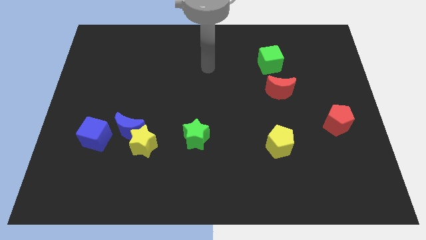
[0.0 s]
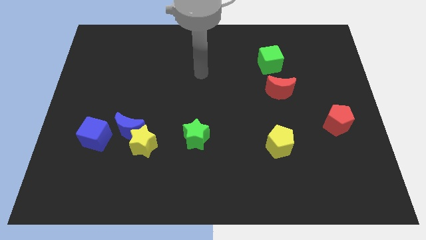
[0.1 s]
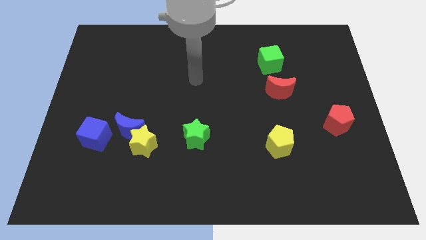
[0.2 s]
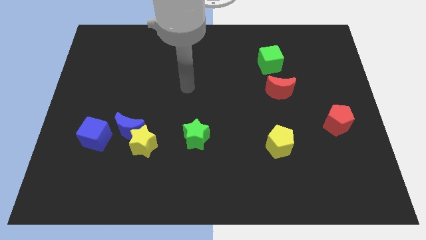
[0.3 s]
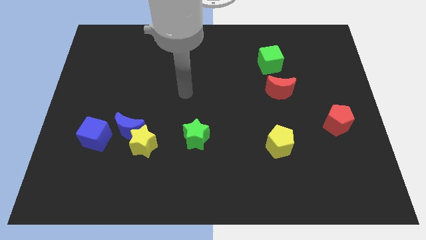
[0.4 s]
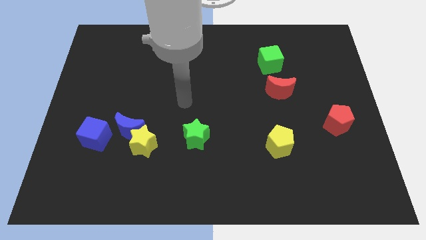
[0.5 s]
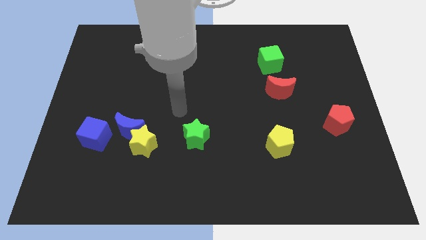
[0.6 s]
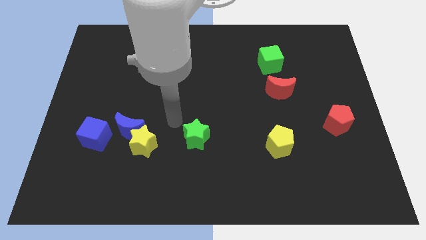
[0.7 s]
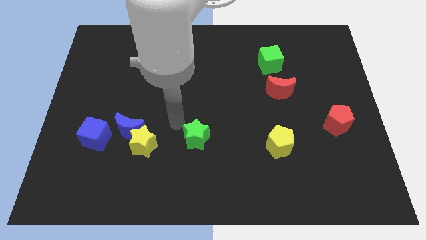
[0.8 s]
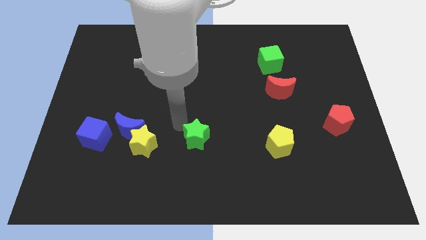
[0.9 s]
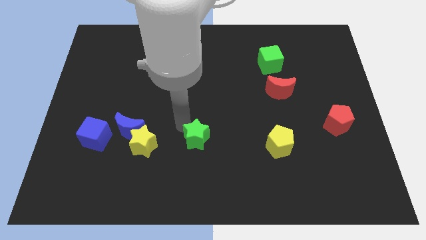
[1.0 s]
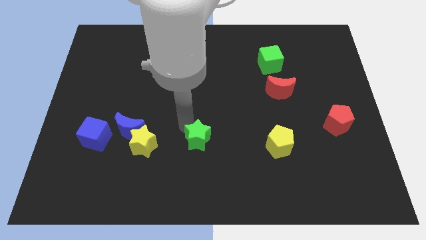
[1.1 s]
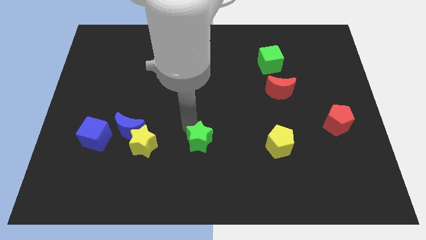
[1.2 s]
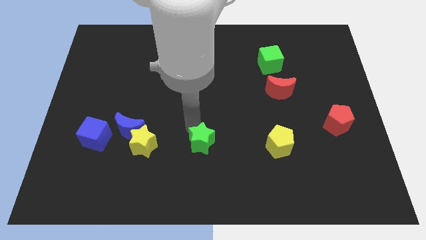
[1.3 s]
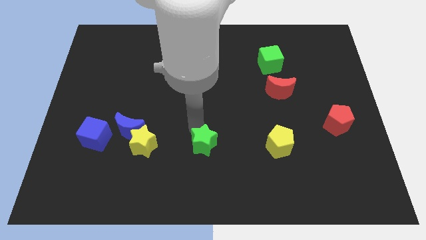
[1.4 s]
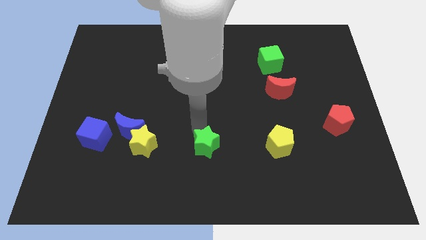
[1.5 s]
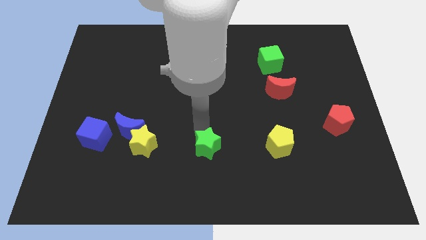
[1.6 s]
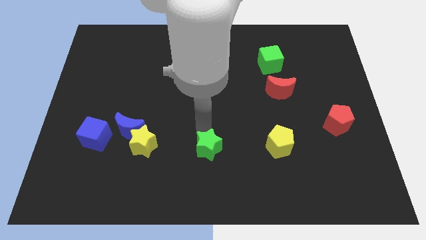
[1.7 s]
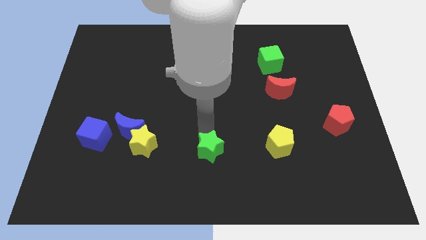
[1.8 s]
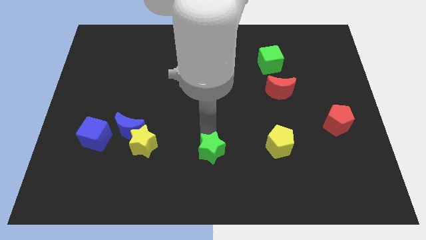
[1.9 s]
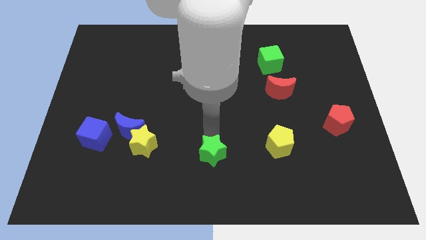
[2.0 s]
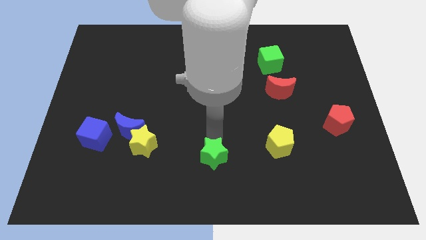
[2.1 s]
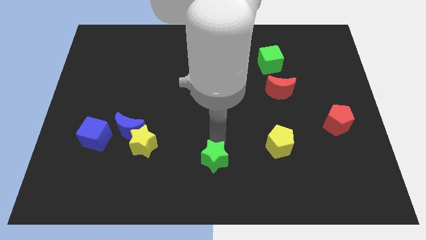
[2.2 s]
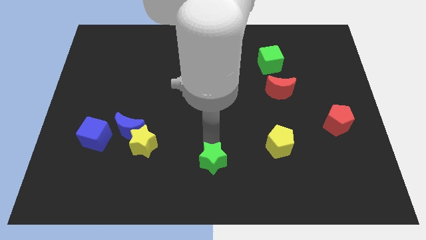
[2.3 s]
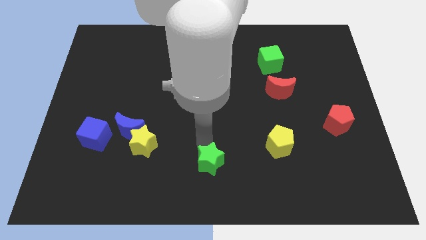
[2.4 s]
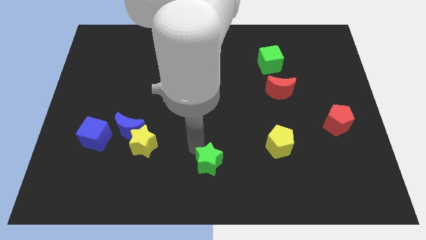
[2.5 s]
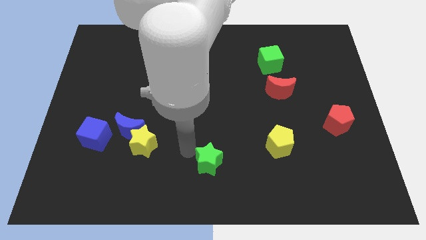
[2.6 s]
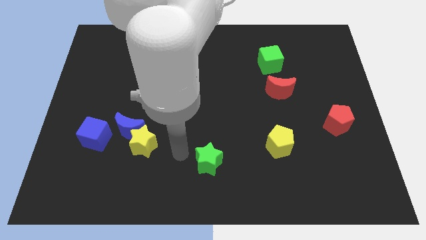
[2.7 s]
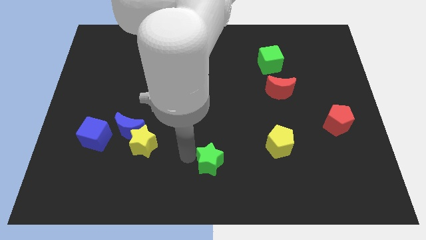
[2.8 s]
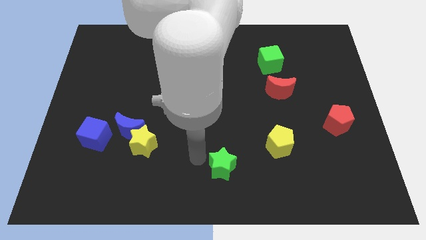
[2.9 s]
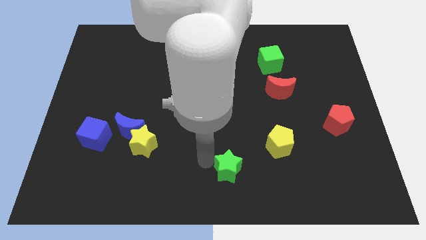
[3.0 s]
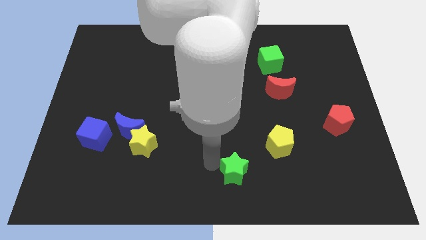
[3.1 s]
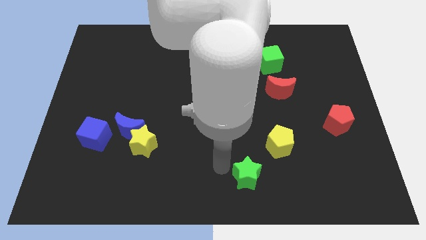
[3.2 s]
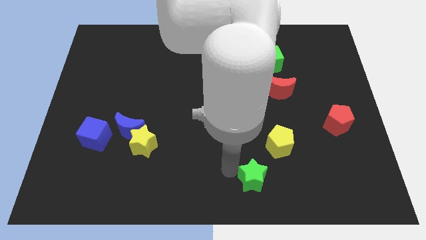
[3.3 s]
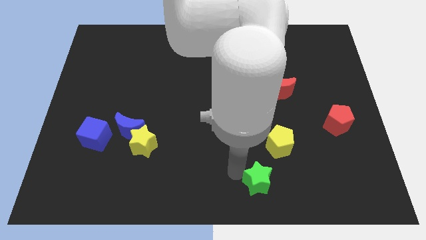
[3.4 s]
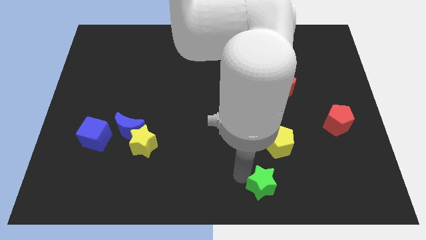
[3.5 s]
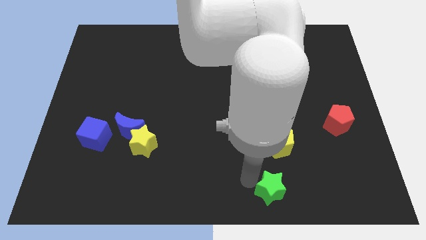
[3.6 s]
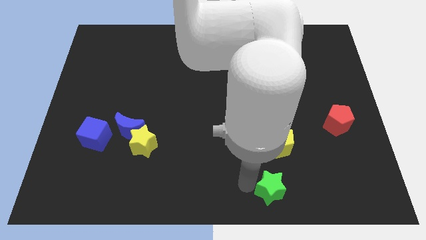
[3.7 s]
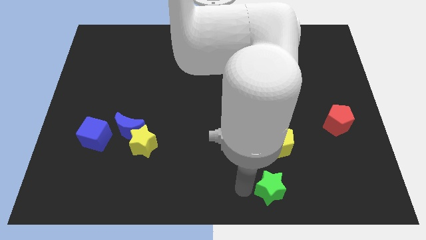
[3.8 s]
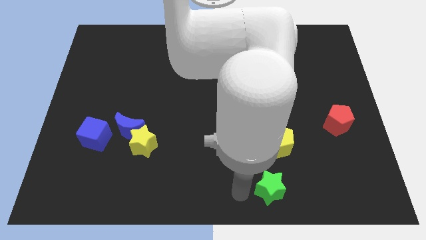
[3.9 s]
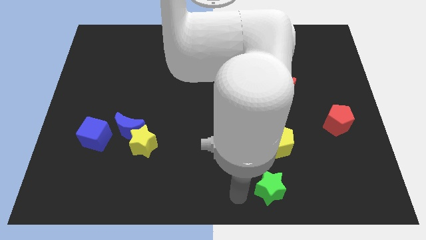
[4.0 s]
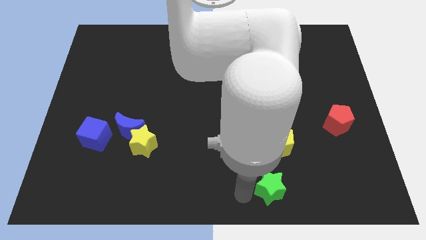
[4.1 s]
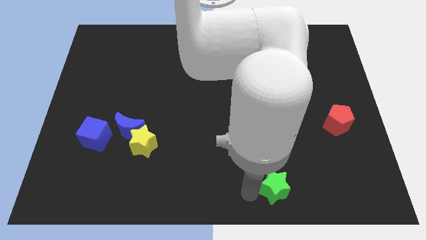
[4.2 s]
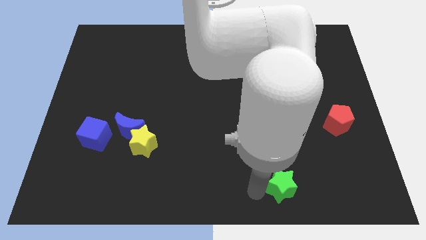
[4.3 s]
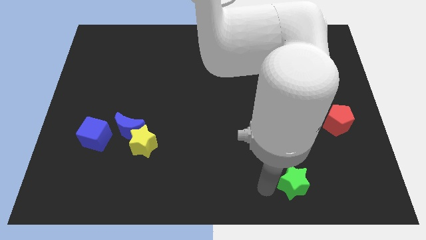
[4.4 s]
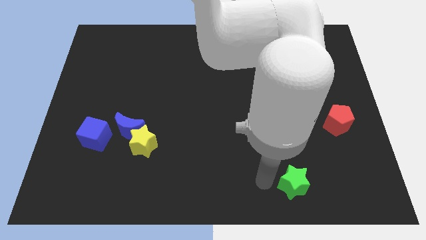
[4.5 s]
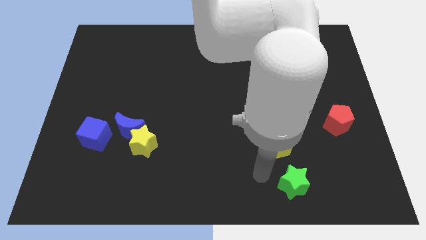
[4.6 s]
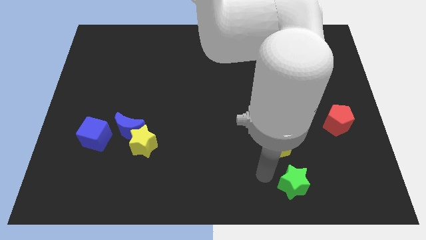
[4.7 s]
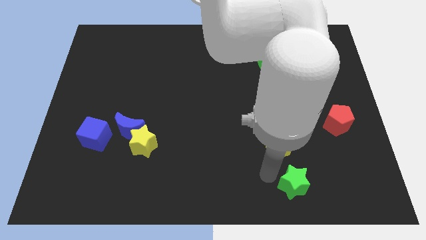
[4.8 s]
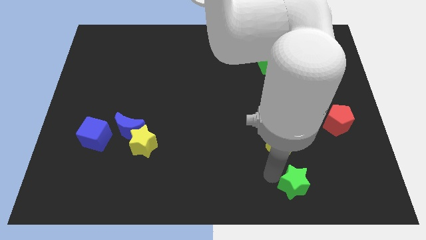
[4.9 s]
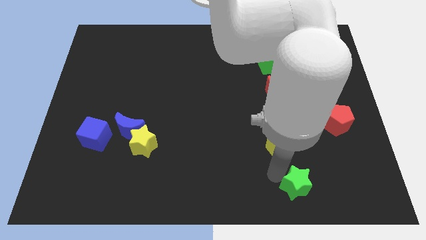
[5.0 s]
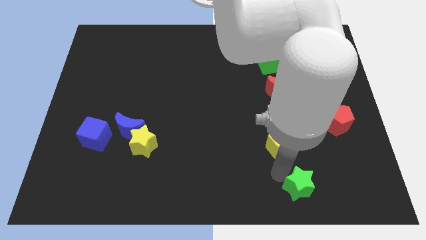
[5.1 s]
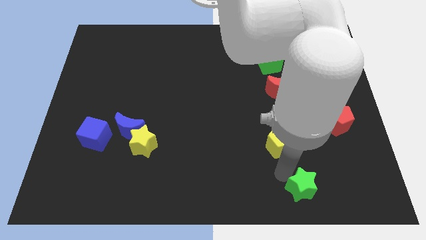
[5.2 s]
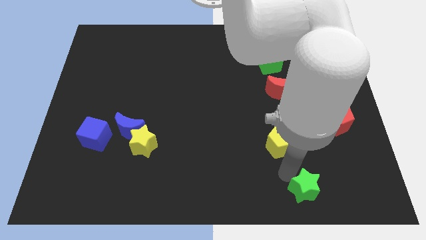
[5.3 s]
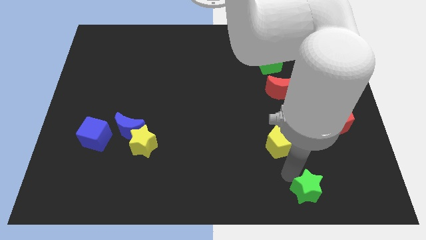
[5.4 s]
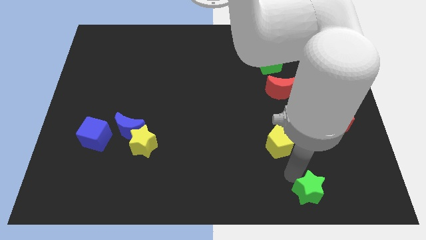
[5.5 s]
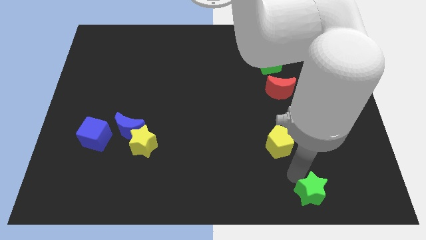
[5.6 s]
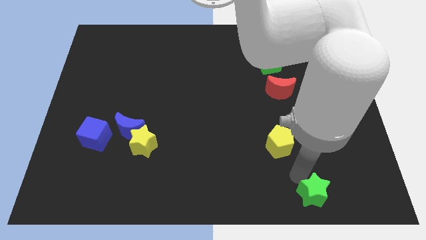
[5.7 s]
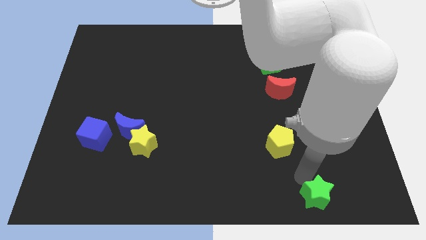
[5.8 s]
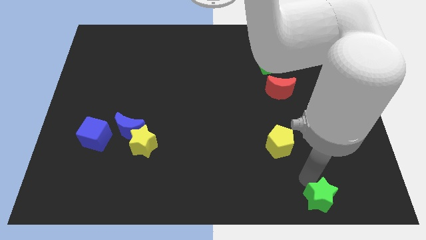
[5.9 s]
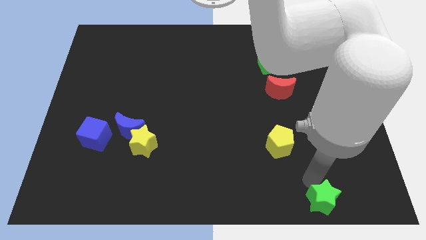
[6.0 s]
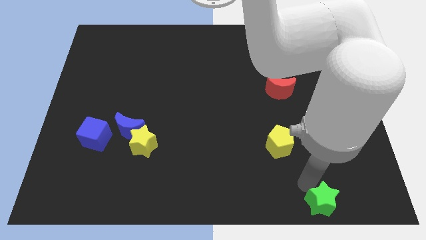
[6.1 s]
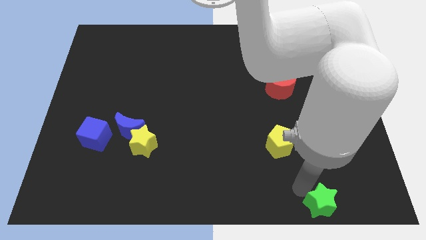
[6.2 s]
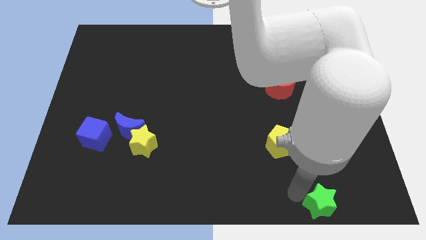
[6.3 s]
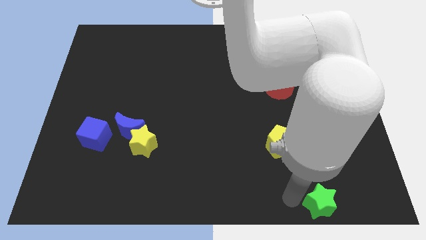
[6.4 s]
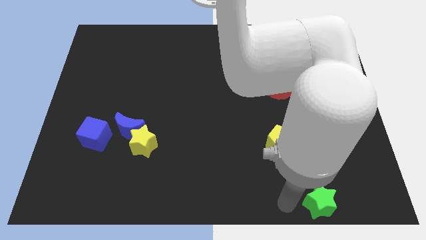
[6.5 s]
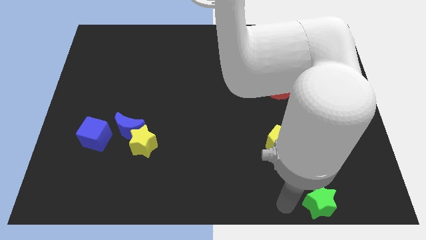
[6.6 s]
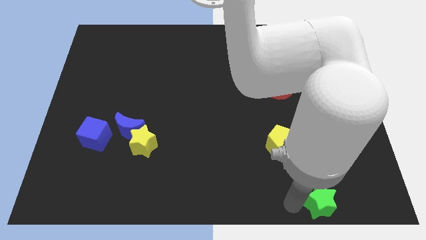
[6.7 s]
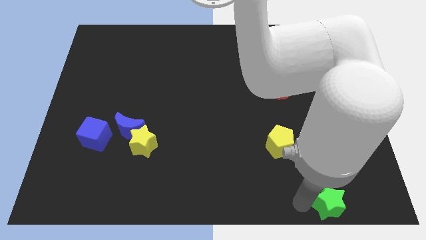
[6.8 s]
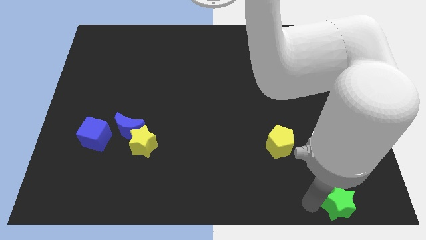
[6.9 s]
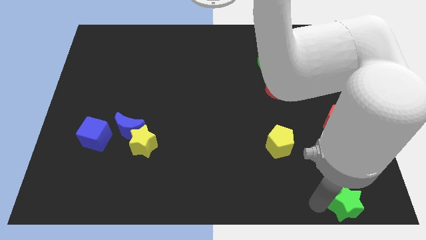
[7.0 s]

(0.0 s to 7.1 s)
put the green star to the bottom right

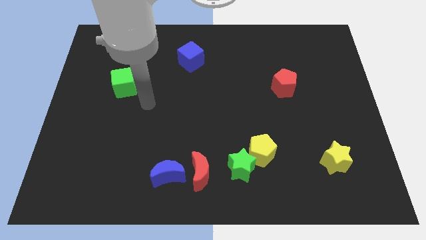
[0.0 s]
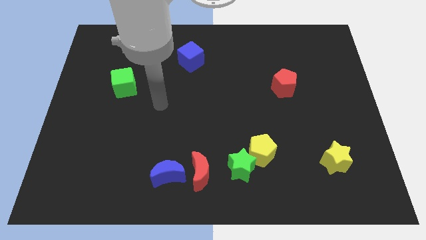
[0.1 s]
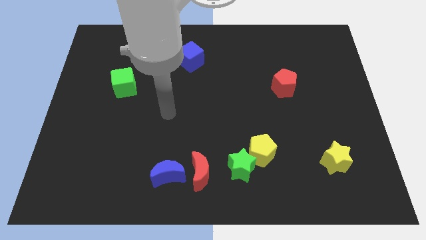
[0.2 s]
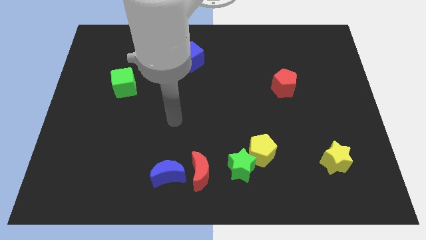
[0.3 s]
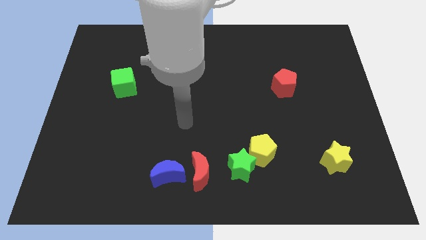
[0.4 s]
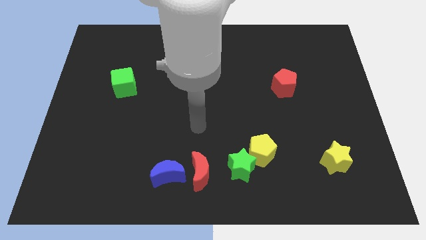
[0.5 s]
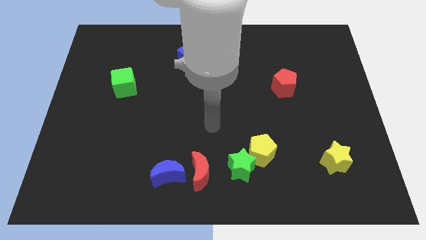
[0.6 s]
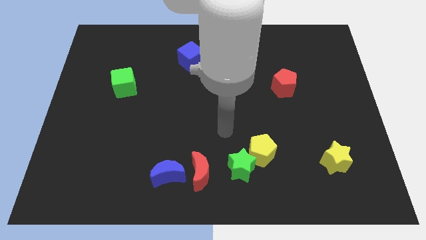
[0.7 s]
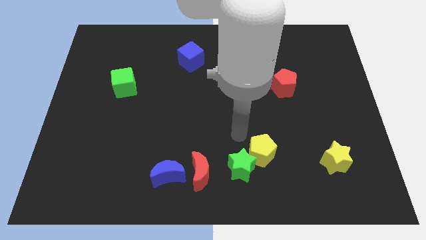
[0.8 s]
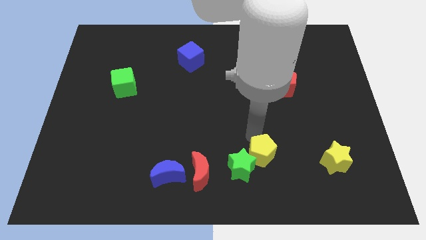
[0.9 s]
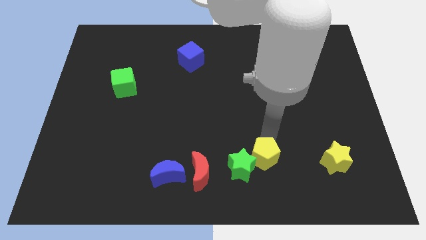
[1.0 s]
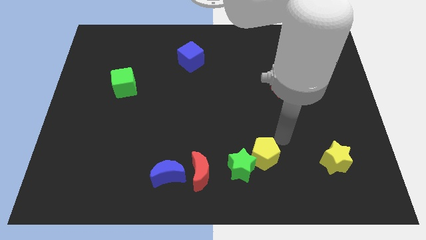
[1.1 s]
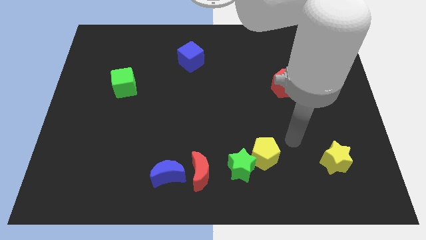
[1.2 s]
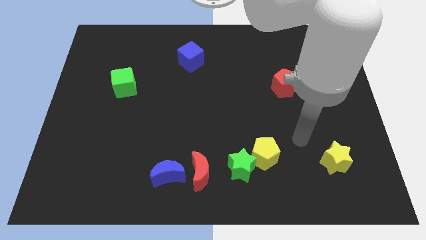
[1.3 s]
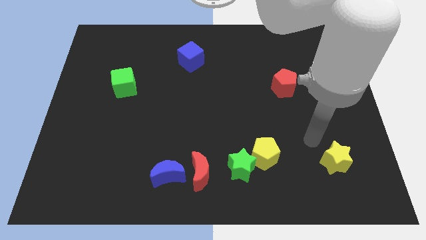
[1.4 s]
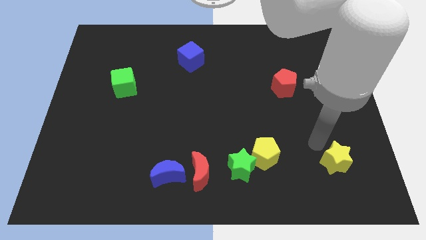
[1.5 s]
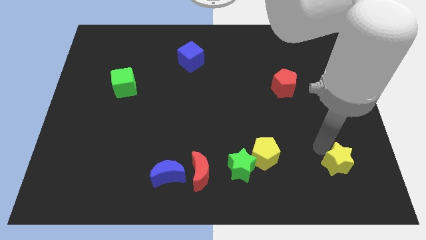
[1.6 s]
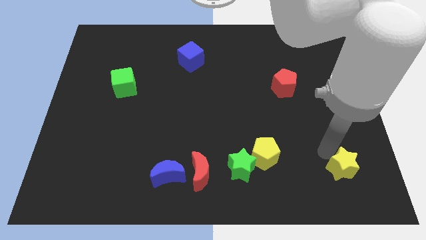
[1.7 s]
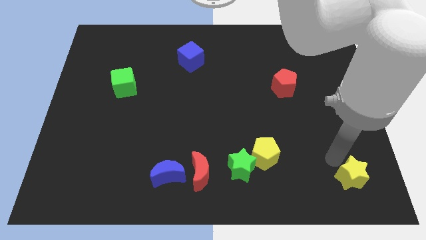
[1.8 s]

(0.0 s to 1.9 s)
put the yellow star to the bottom right corner
